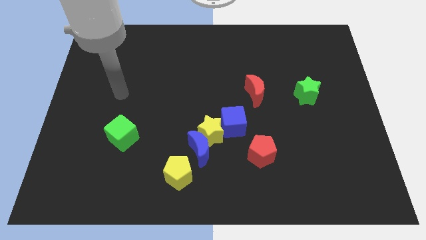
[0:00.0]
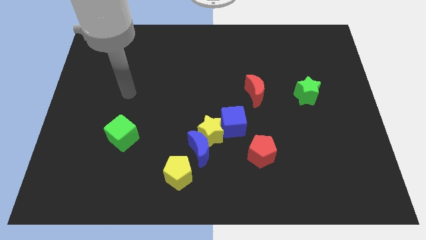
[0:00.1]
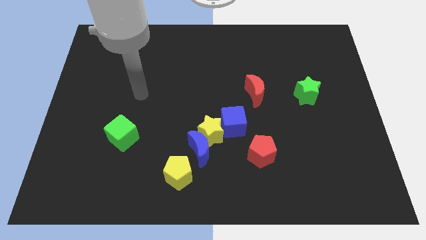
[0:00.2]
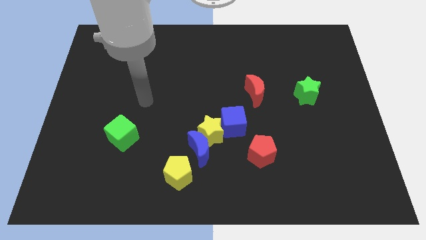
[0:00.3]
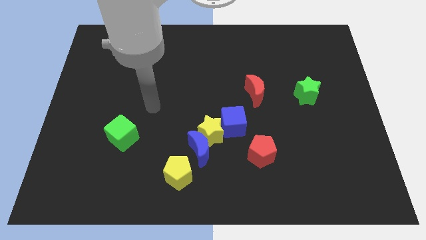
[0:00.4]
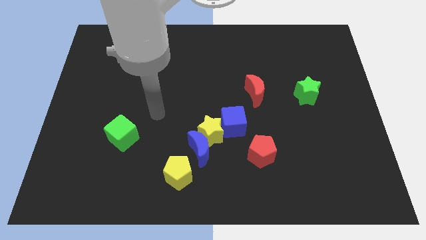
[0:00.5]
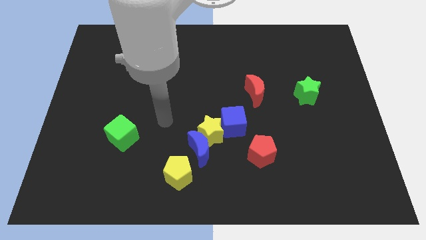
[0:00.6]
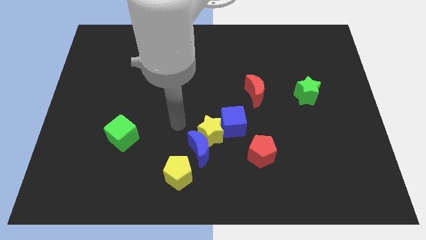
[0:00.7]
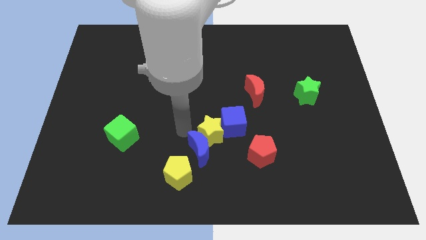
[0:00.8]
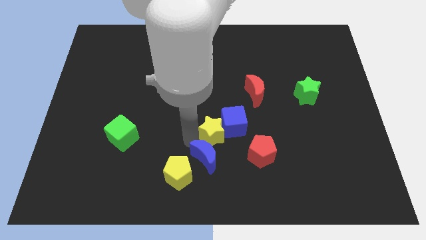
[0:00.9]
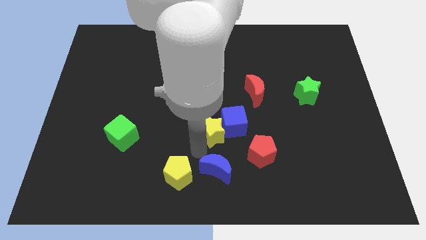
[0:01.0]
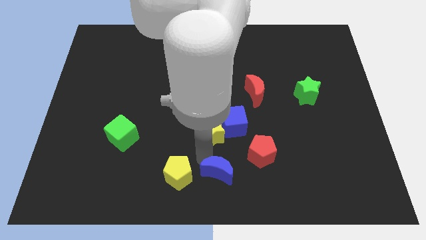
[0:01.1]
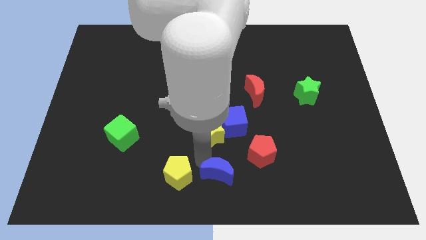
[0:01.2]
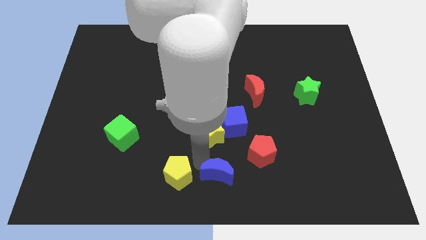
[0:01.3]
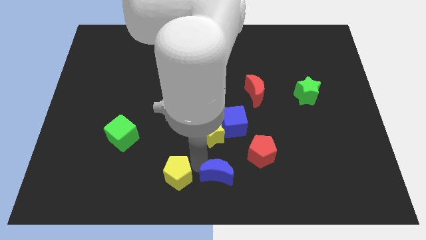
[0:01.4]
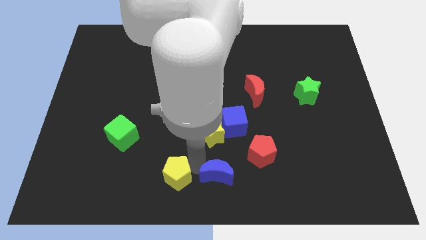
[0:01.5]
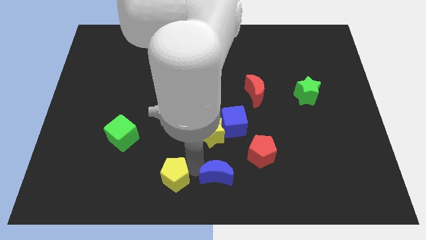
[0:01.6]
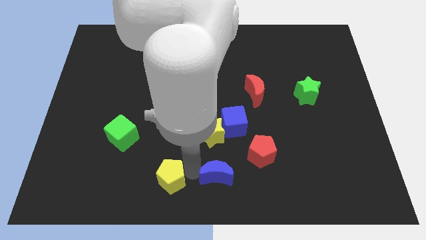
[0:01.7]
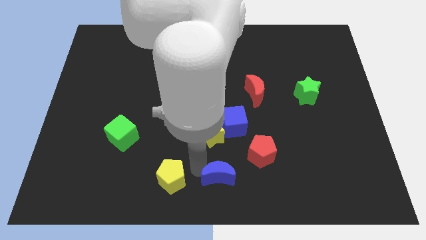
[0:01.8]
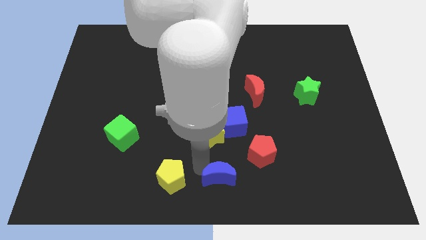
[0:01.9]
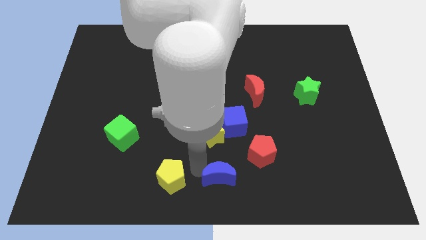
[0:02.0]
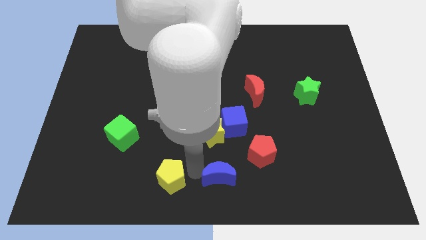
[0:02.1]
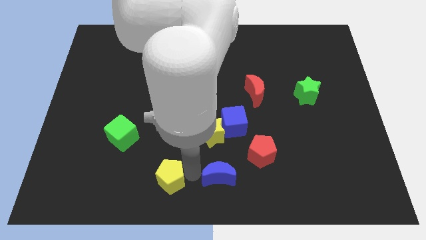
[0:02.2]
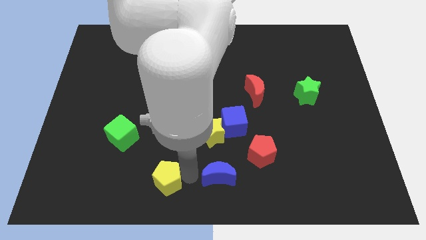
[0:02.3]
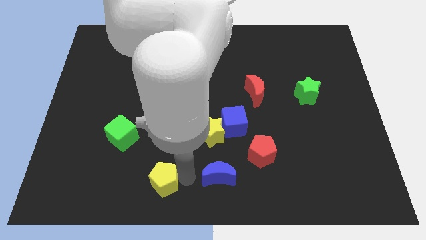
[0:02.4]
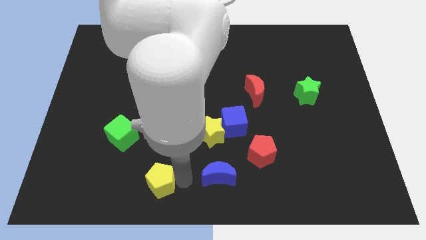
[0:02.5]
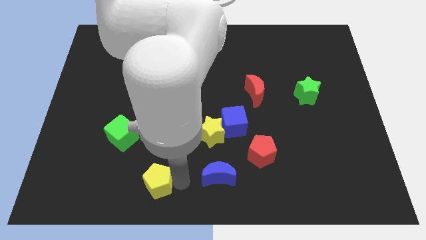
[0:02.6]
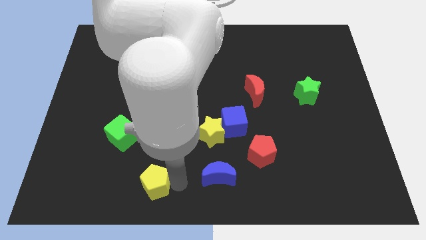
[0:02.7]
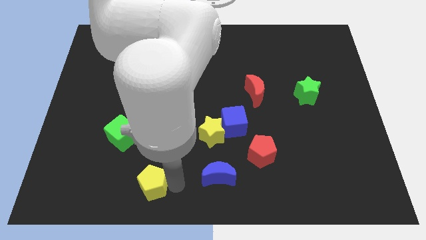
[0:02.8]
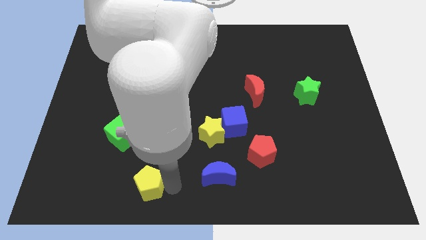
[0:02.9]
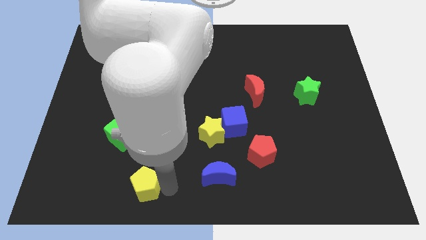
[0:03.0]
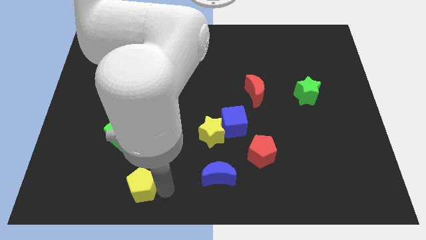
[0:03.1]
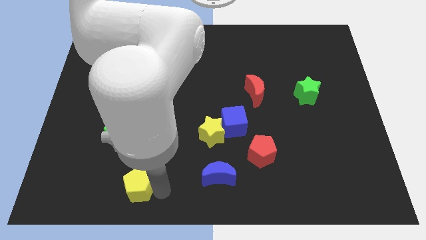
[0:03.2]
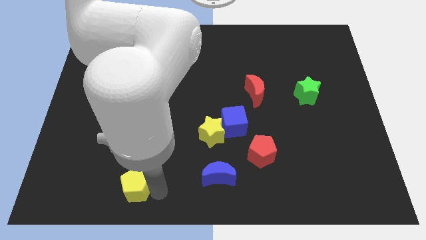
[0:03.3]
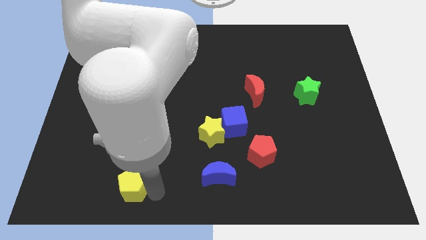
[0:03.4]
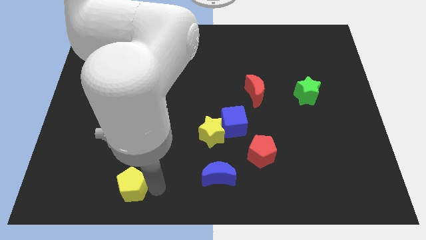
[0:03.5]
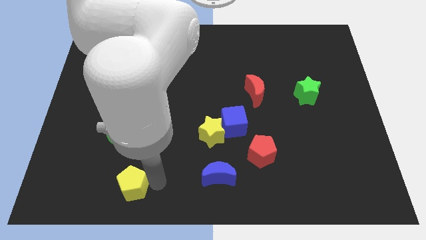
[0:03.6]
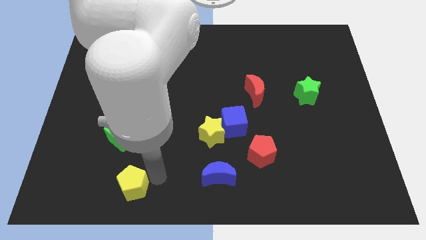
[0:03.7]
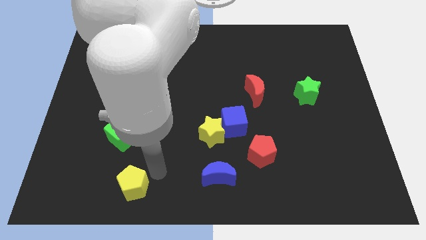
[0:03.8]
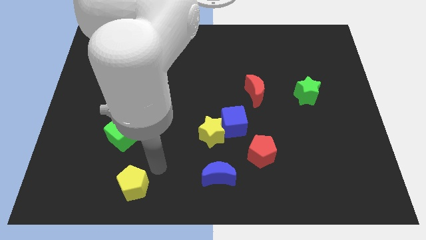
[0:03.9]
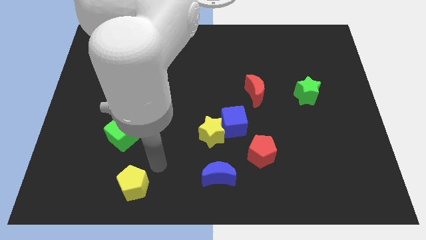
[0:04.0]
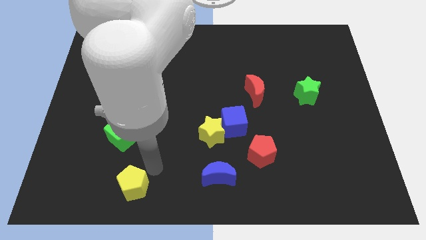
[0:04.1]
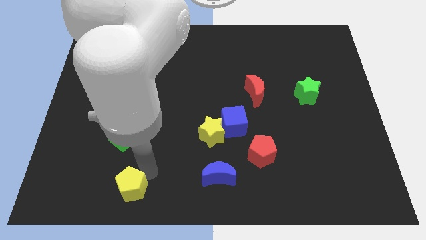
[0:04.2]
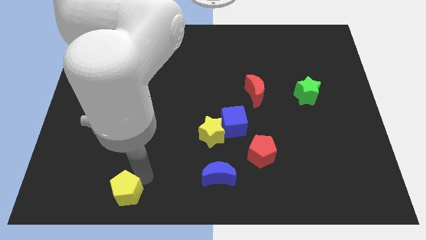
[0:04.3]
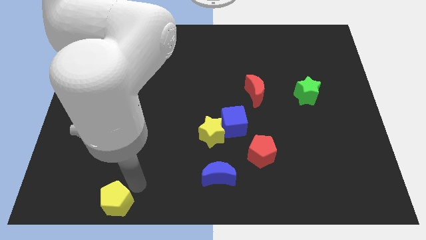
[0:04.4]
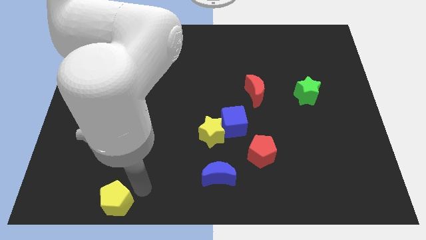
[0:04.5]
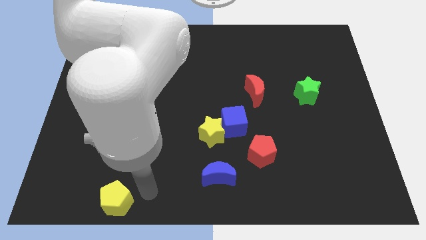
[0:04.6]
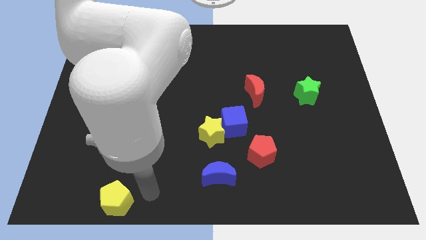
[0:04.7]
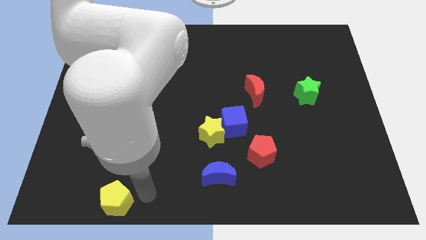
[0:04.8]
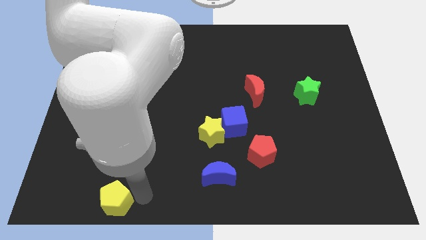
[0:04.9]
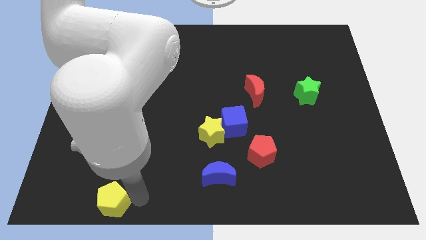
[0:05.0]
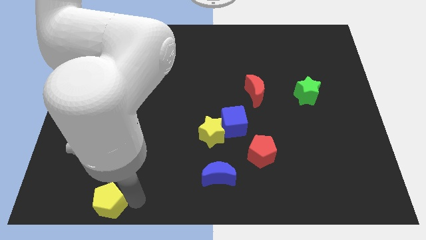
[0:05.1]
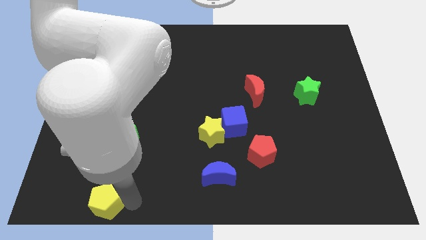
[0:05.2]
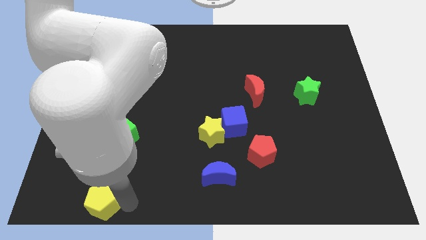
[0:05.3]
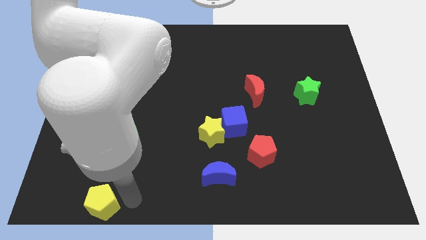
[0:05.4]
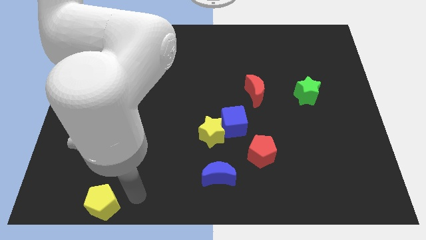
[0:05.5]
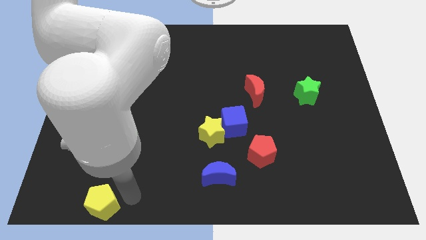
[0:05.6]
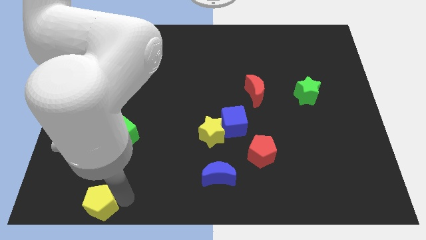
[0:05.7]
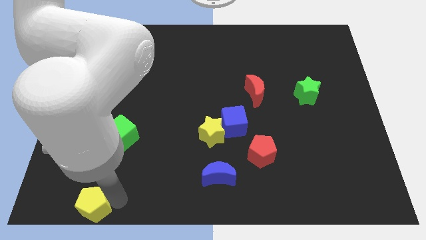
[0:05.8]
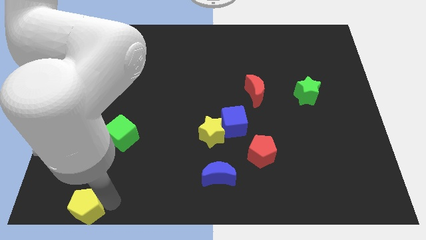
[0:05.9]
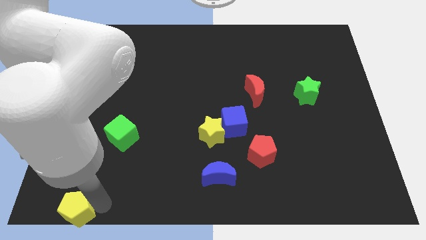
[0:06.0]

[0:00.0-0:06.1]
push the yellow pentagon to the bottom left corner

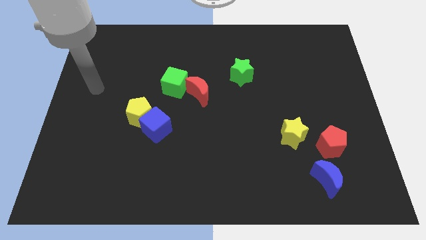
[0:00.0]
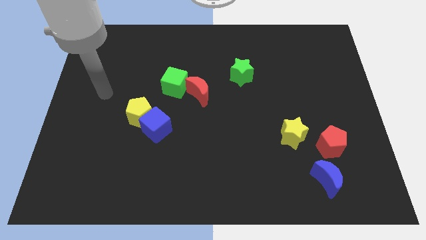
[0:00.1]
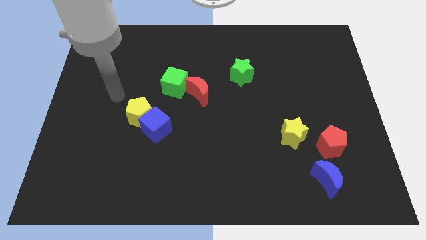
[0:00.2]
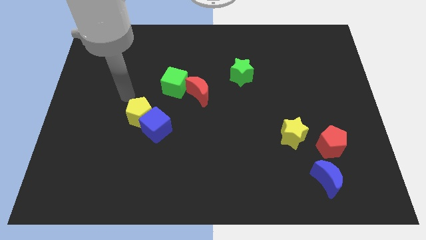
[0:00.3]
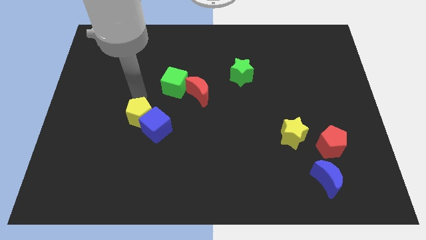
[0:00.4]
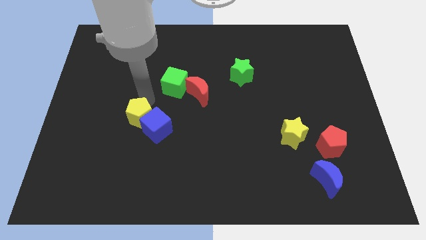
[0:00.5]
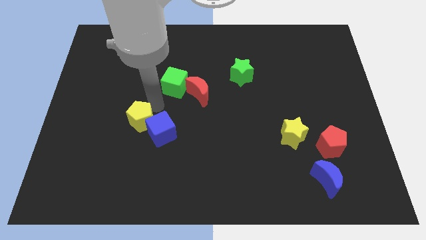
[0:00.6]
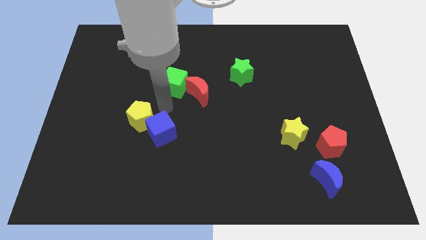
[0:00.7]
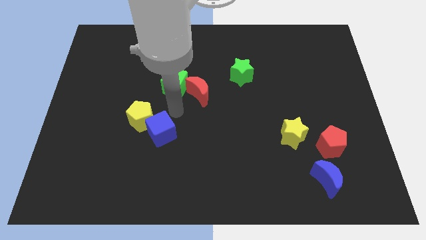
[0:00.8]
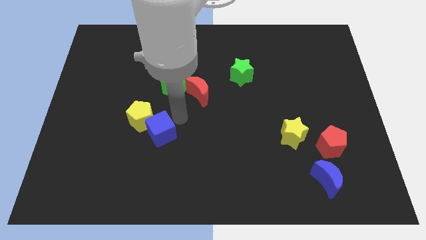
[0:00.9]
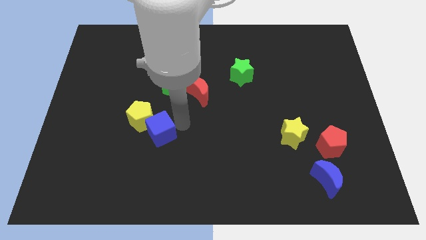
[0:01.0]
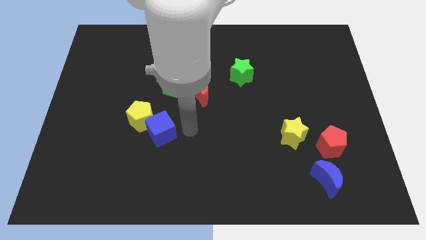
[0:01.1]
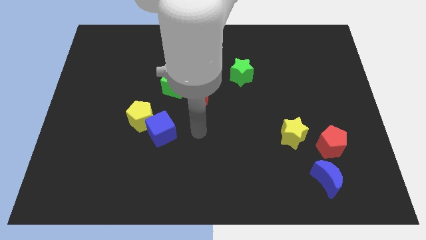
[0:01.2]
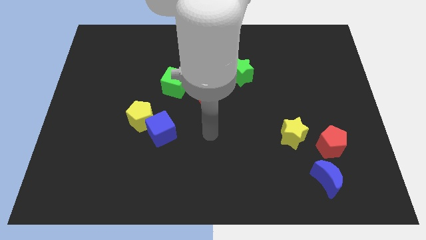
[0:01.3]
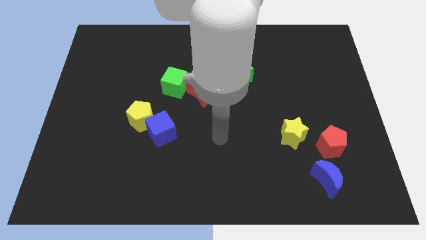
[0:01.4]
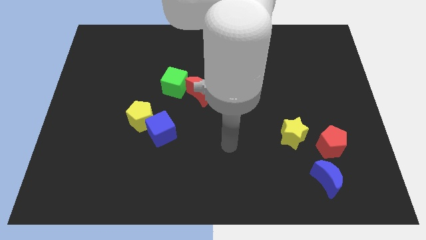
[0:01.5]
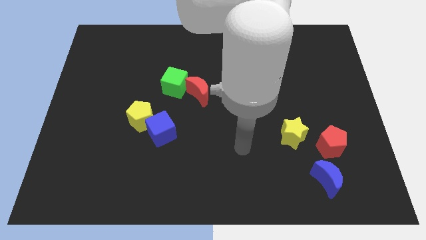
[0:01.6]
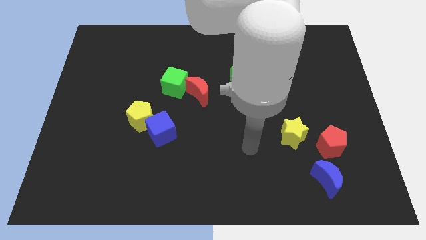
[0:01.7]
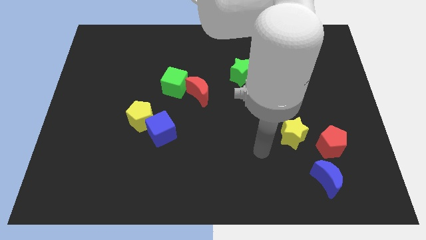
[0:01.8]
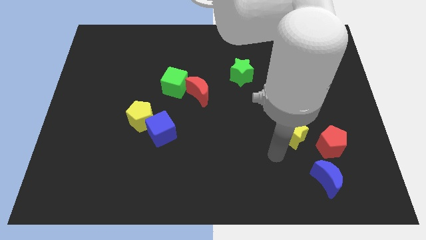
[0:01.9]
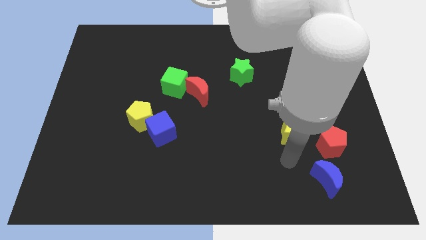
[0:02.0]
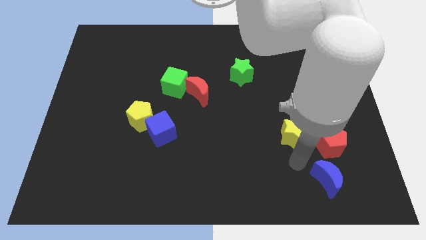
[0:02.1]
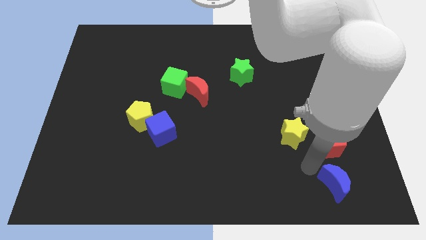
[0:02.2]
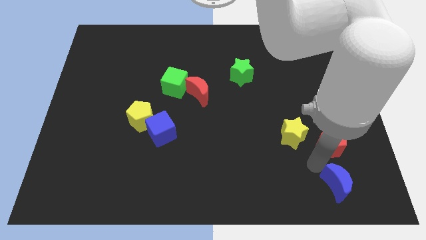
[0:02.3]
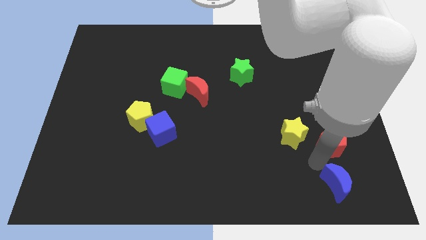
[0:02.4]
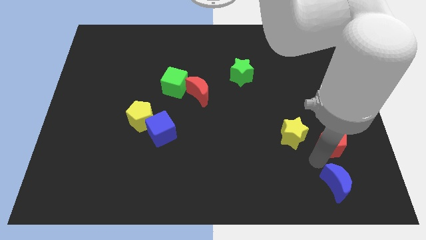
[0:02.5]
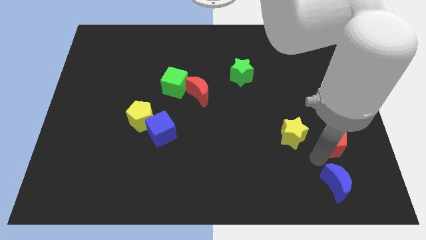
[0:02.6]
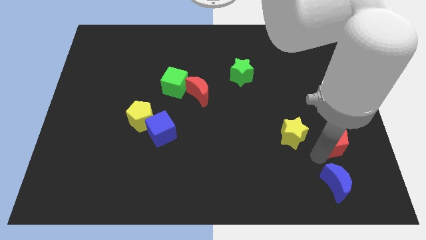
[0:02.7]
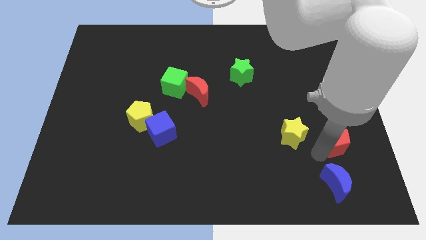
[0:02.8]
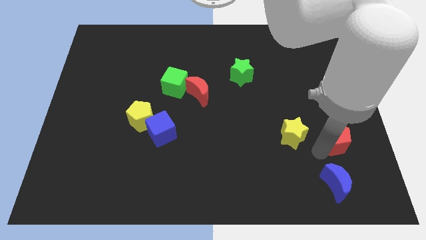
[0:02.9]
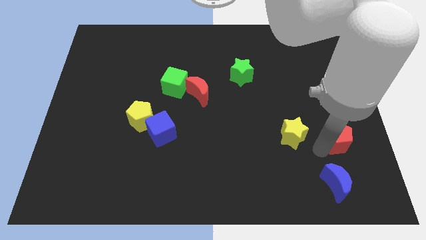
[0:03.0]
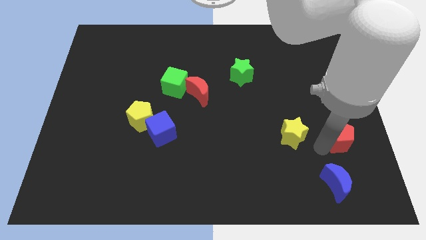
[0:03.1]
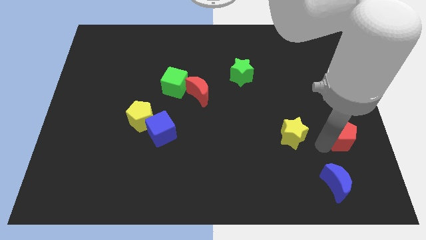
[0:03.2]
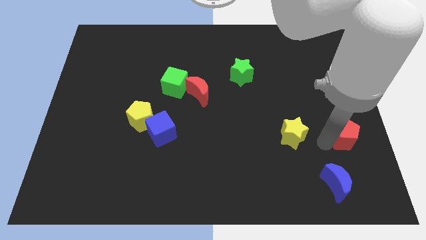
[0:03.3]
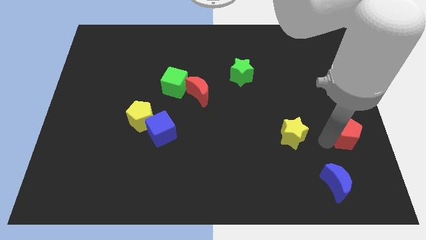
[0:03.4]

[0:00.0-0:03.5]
slide the red pentagon to the right side of the board
